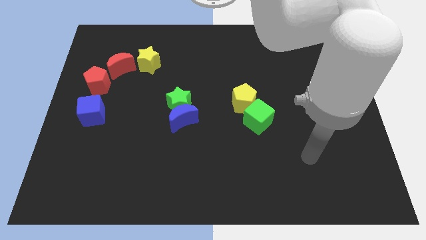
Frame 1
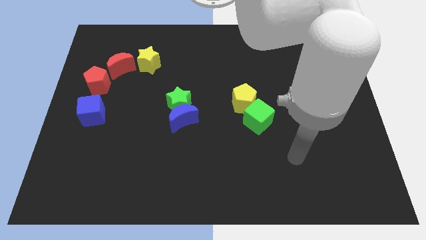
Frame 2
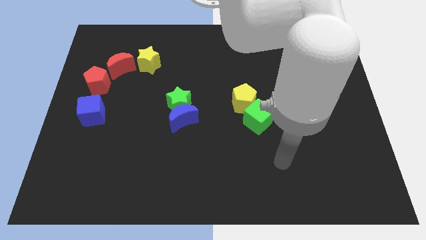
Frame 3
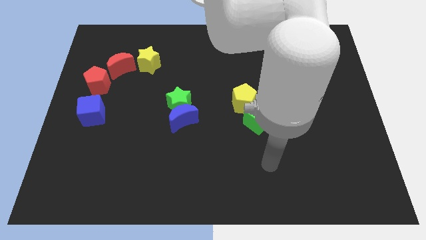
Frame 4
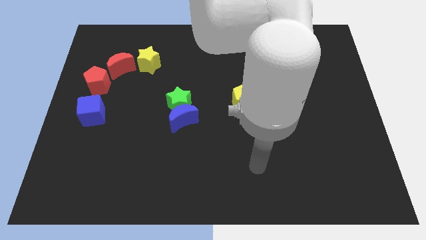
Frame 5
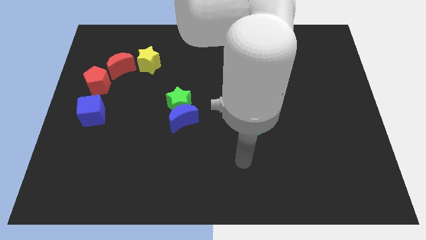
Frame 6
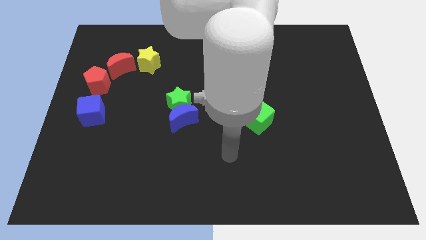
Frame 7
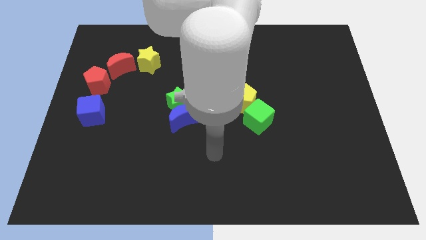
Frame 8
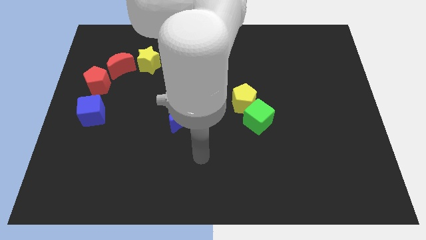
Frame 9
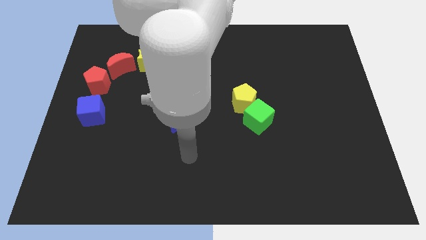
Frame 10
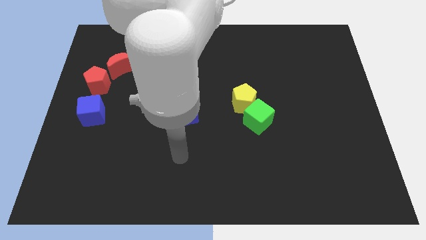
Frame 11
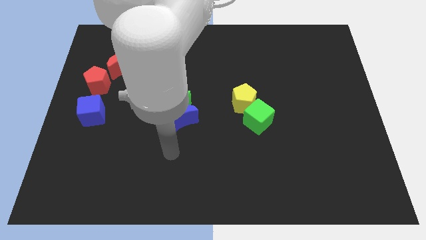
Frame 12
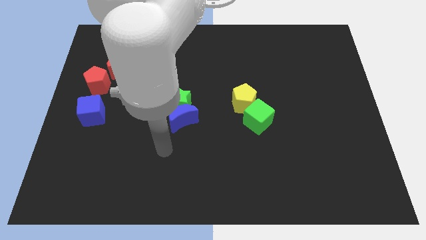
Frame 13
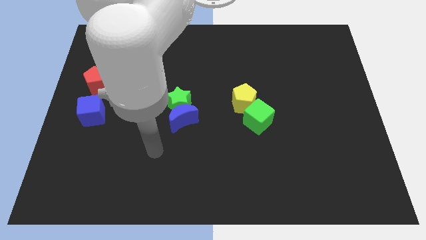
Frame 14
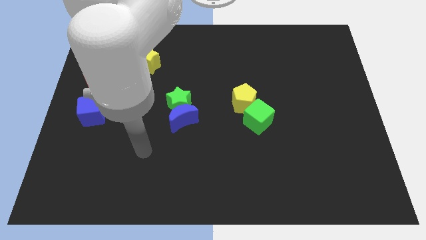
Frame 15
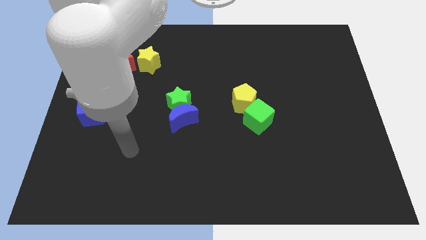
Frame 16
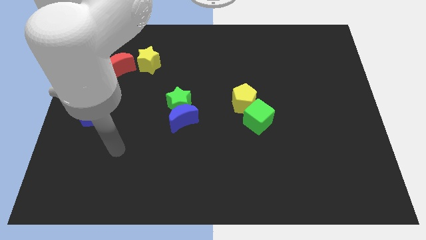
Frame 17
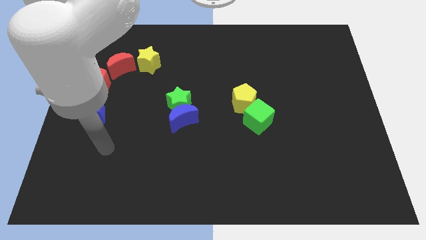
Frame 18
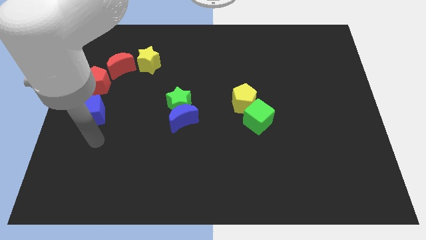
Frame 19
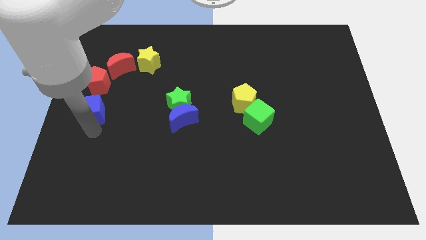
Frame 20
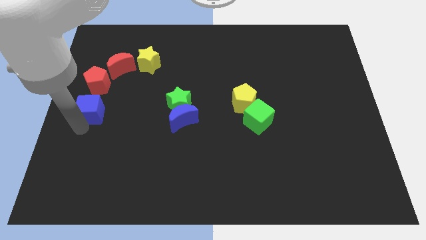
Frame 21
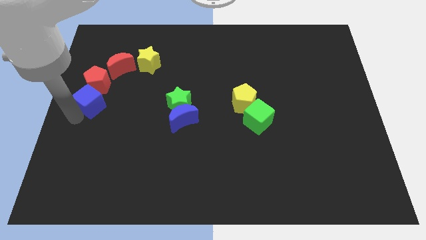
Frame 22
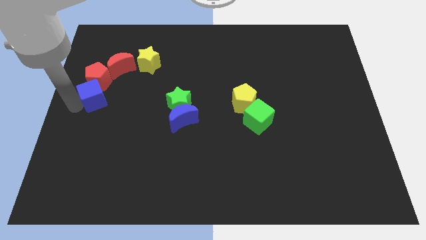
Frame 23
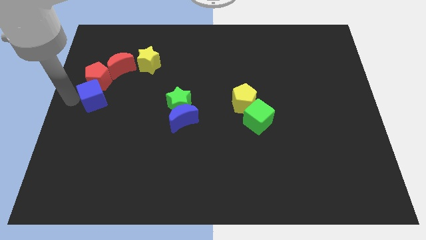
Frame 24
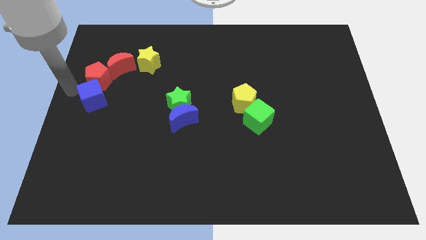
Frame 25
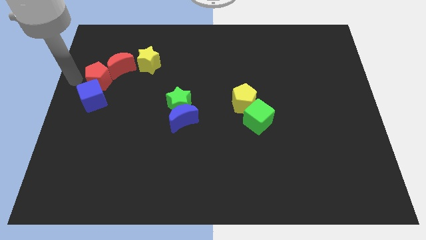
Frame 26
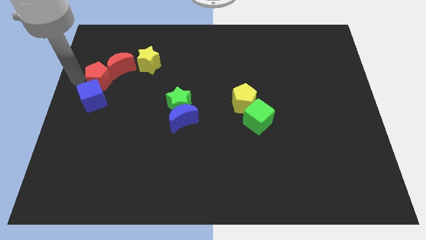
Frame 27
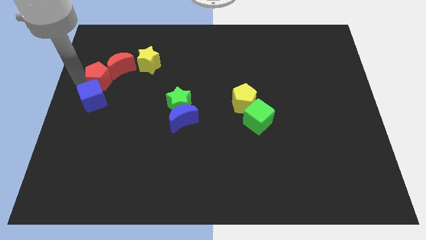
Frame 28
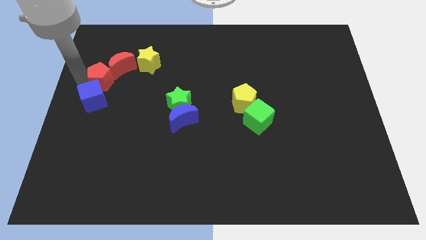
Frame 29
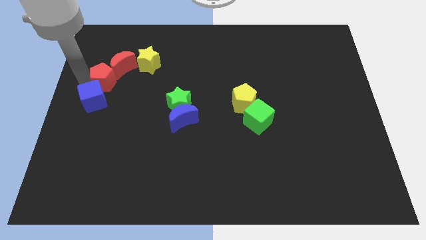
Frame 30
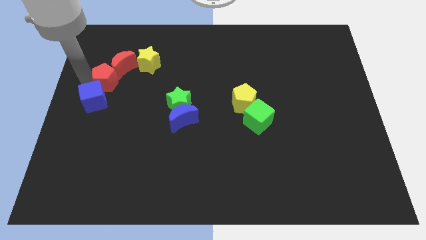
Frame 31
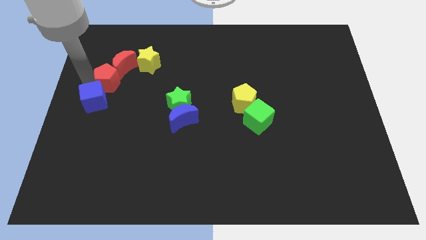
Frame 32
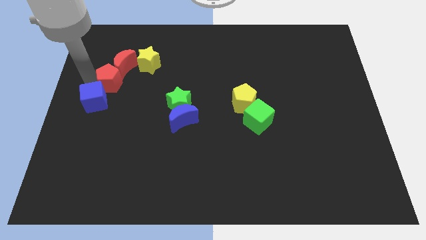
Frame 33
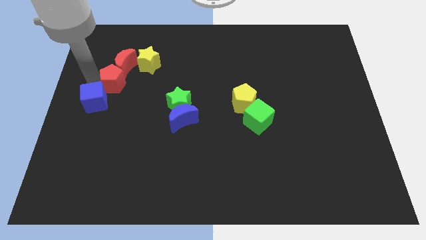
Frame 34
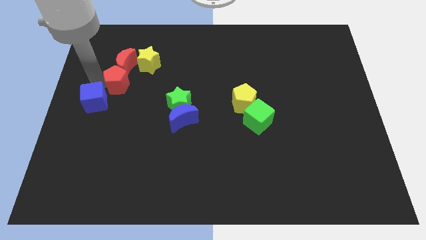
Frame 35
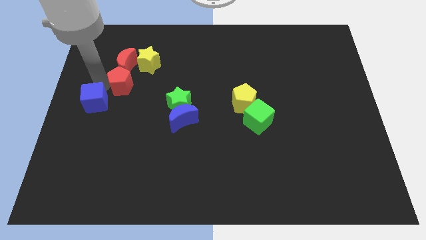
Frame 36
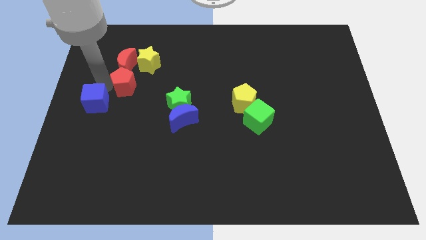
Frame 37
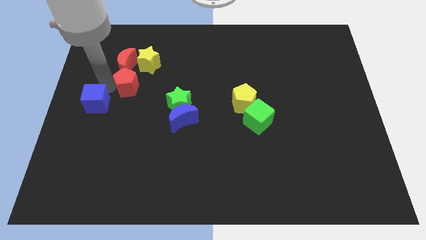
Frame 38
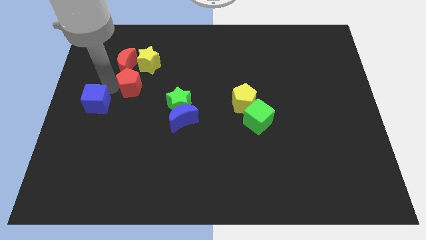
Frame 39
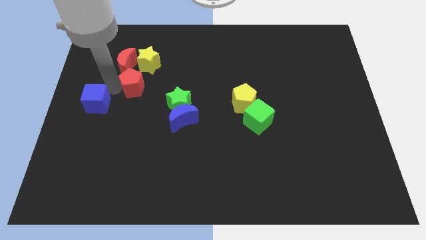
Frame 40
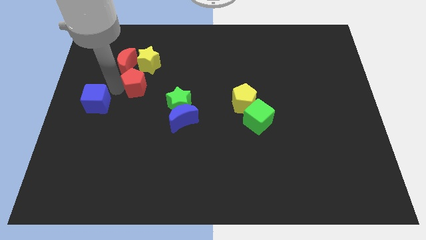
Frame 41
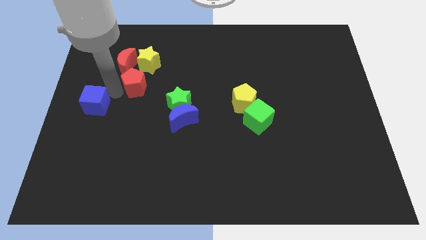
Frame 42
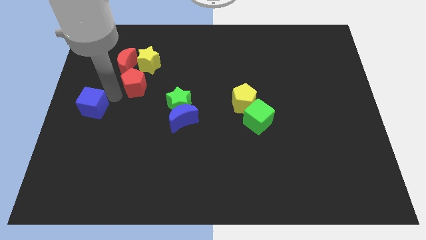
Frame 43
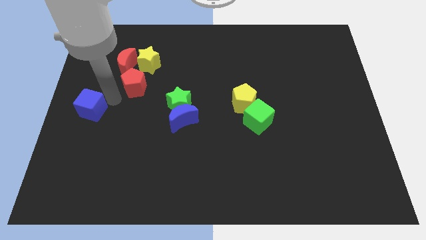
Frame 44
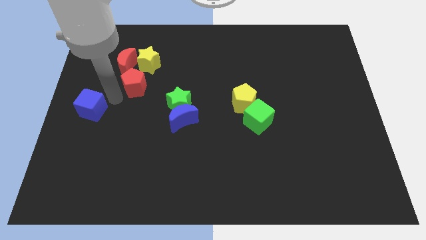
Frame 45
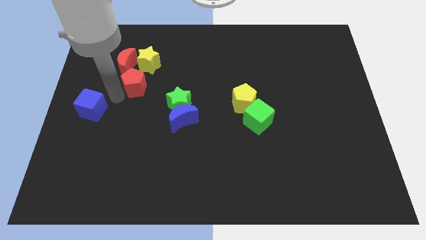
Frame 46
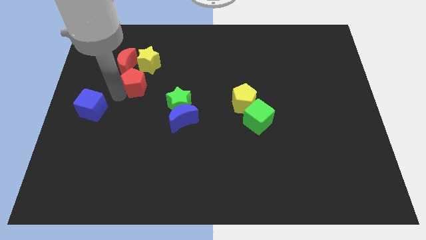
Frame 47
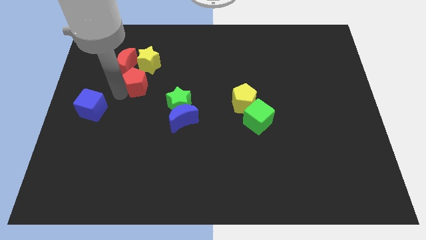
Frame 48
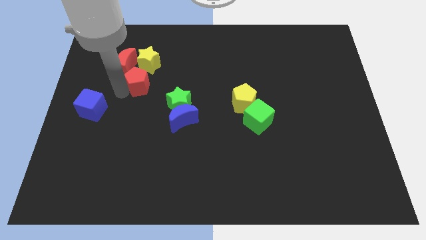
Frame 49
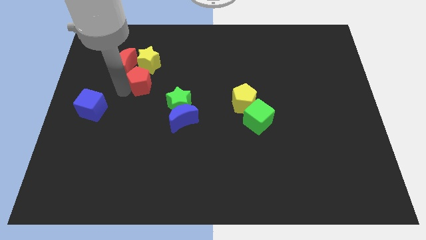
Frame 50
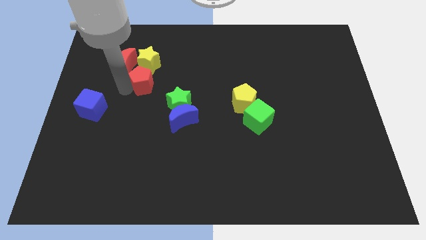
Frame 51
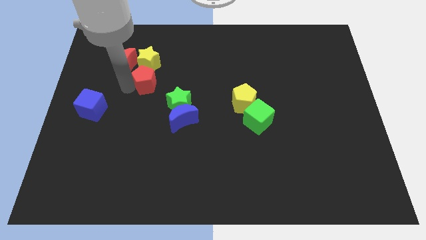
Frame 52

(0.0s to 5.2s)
put the red pentagon to the bottom right side of the yellow star

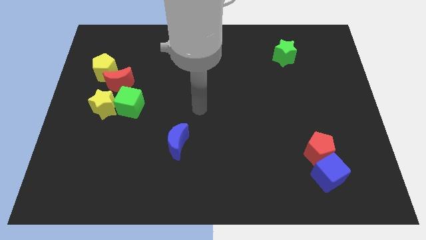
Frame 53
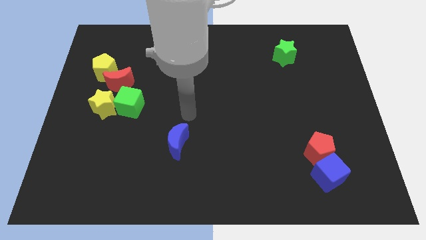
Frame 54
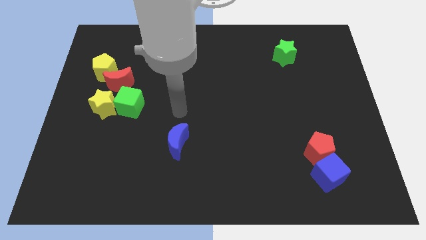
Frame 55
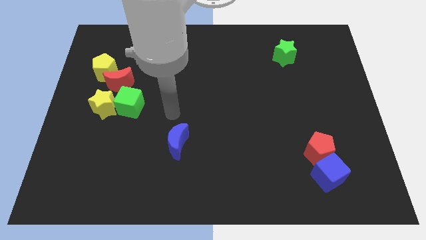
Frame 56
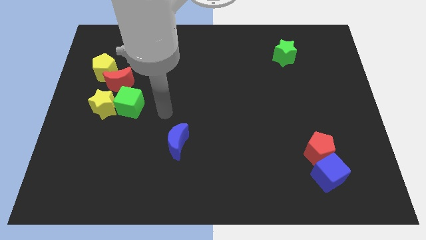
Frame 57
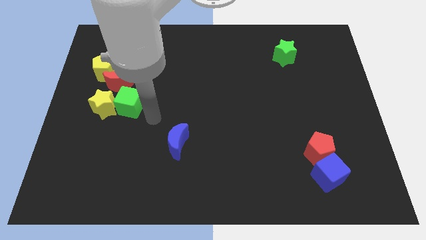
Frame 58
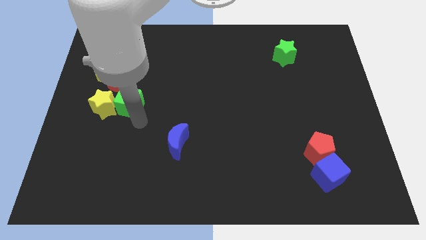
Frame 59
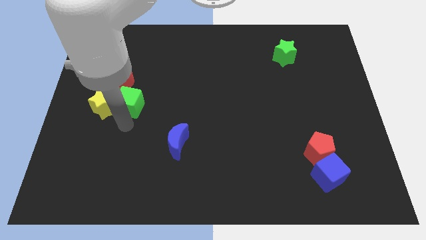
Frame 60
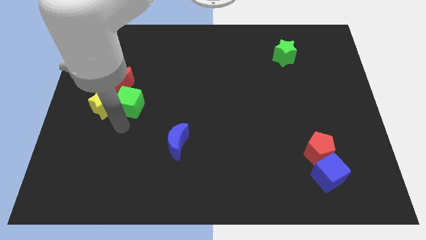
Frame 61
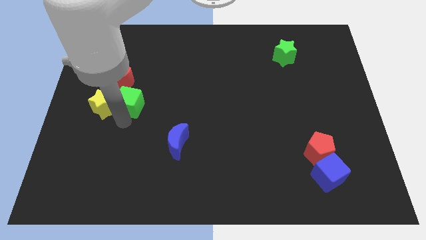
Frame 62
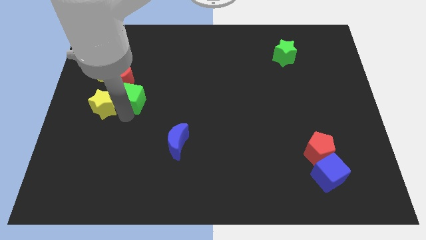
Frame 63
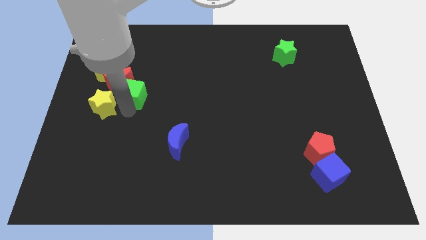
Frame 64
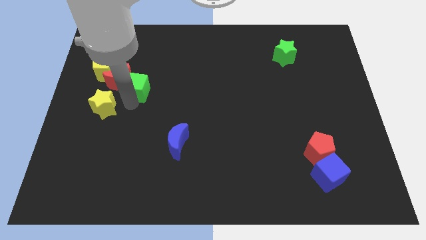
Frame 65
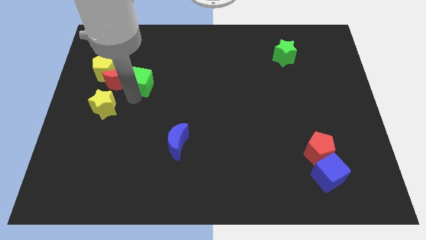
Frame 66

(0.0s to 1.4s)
push the green cube to the right of the yellow pentagon

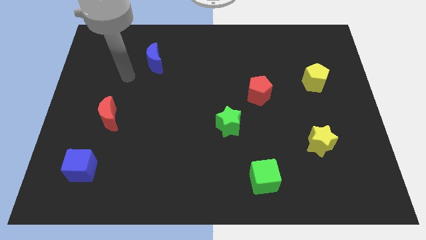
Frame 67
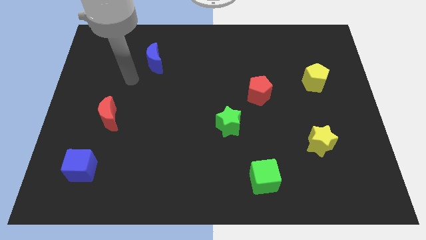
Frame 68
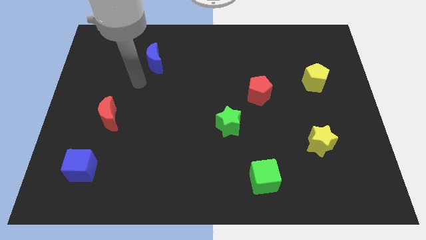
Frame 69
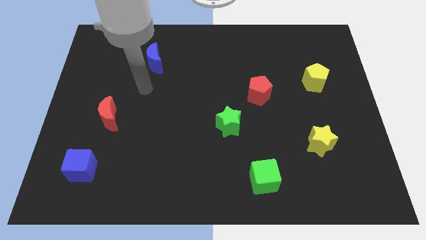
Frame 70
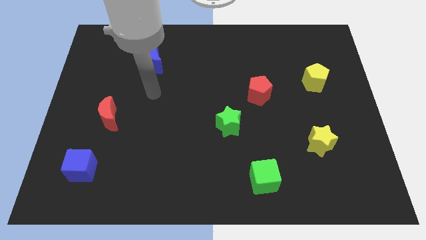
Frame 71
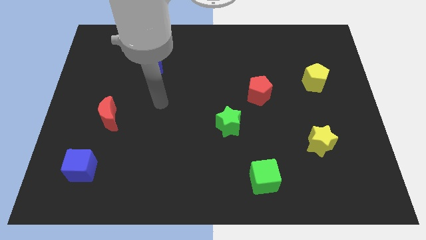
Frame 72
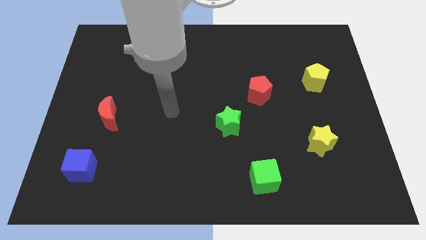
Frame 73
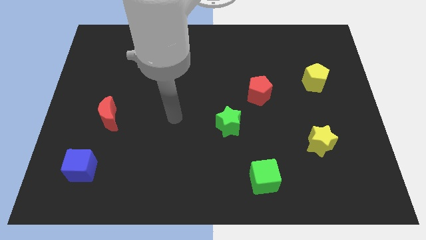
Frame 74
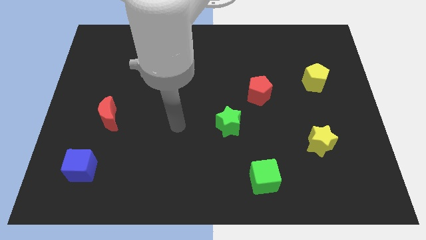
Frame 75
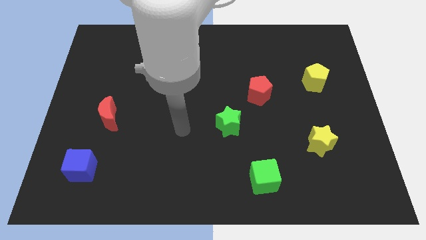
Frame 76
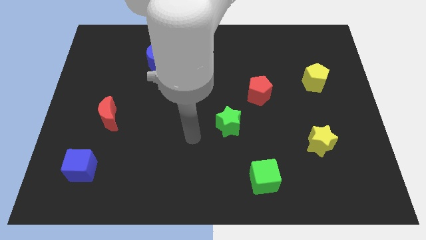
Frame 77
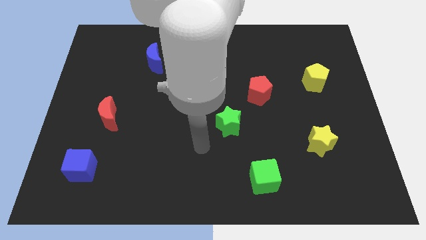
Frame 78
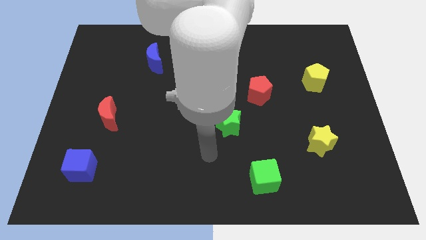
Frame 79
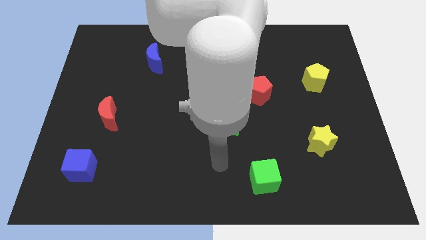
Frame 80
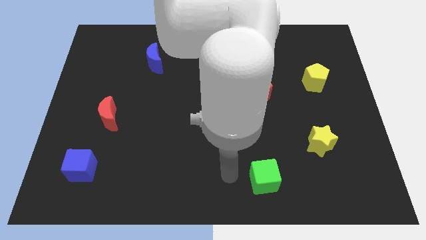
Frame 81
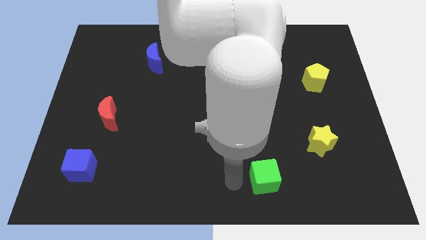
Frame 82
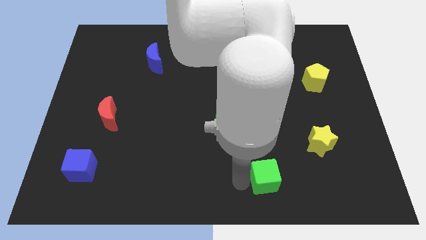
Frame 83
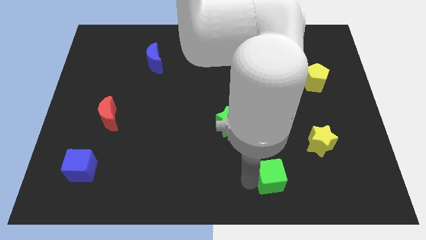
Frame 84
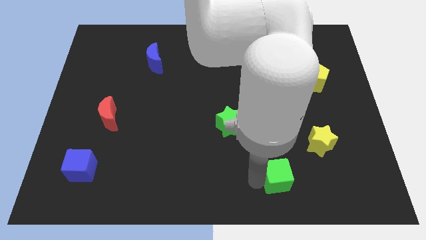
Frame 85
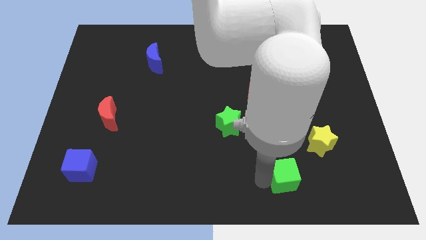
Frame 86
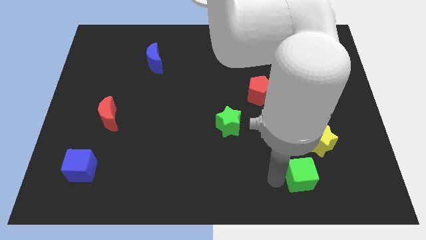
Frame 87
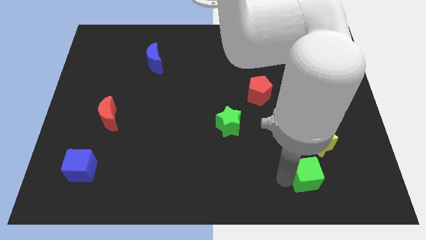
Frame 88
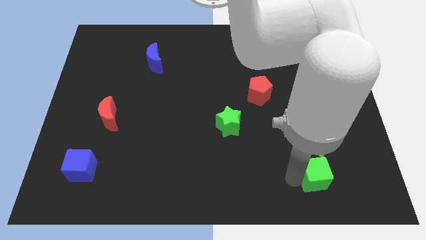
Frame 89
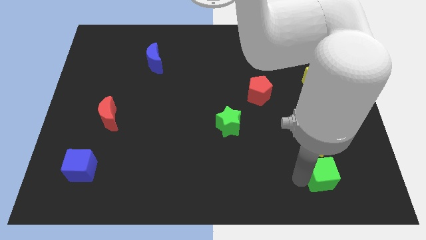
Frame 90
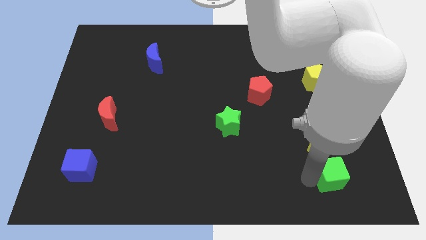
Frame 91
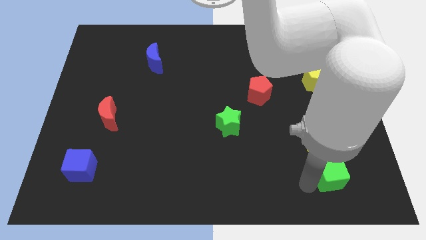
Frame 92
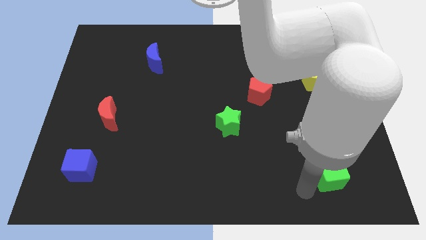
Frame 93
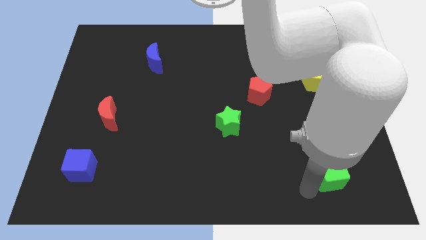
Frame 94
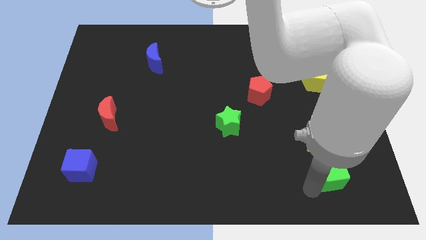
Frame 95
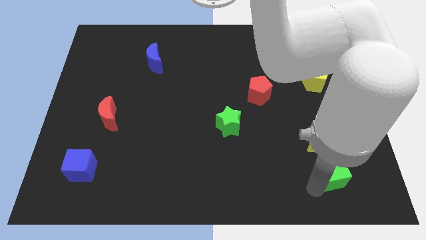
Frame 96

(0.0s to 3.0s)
push the green cube diagonally down and to the right of the yellow star
